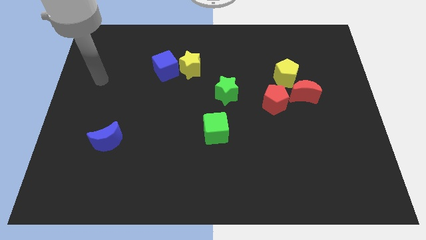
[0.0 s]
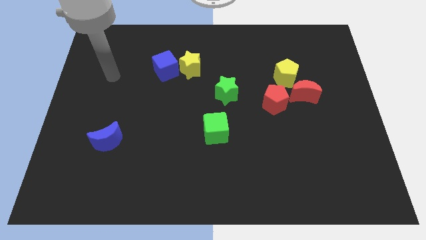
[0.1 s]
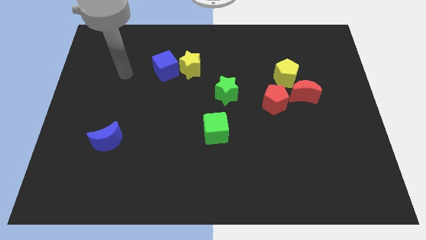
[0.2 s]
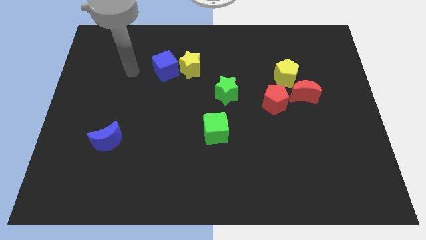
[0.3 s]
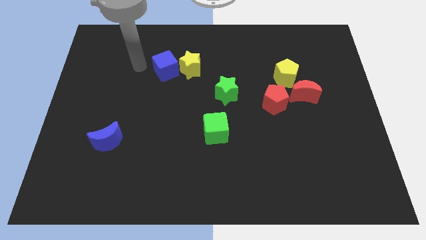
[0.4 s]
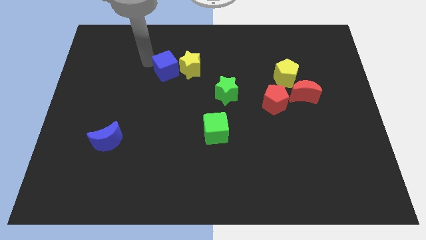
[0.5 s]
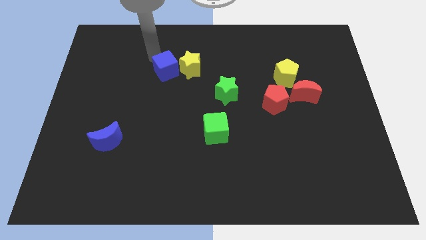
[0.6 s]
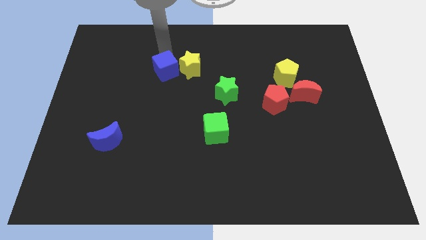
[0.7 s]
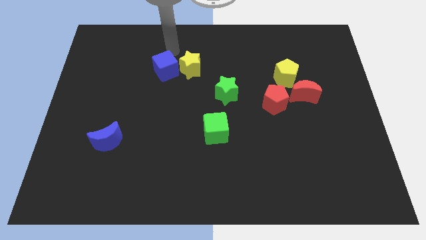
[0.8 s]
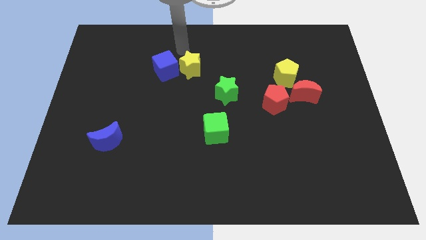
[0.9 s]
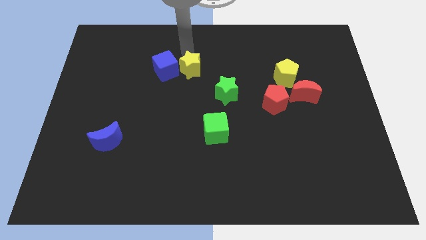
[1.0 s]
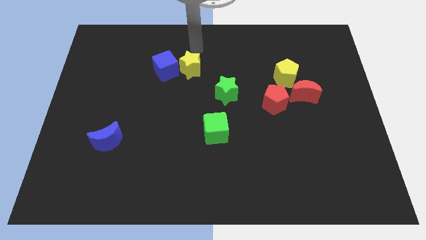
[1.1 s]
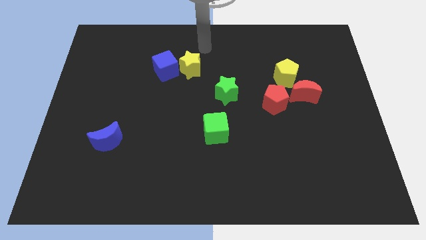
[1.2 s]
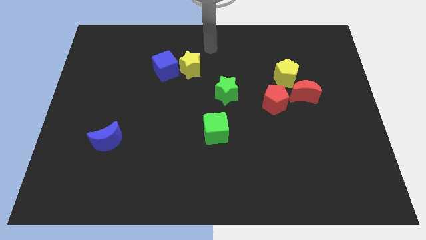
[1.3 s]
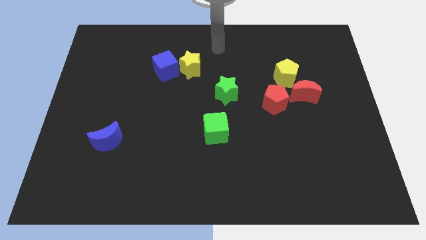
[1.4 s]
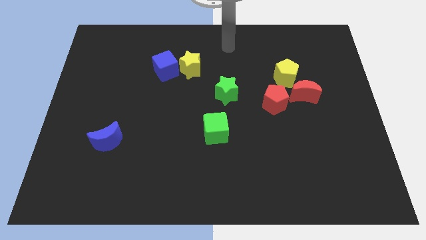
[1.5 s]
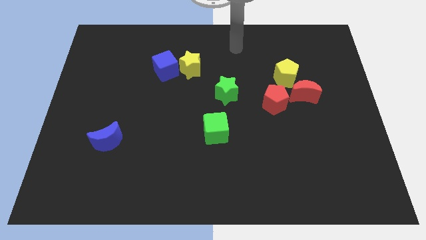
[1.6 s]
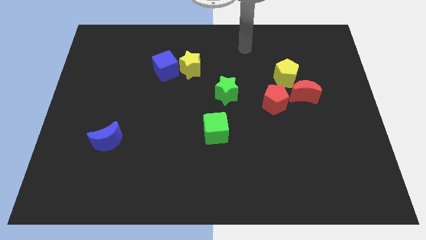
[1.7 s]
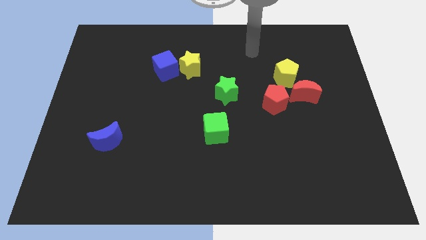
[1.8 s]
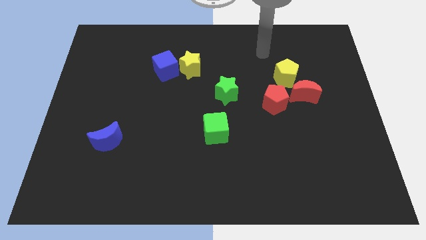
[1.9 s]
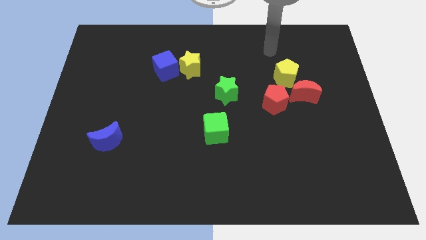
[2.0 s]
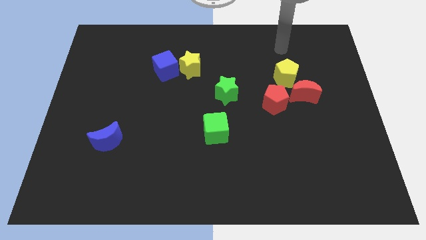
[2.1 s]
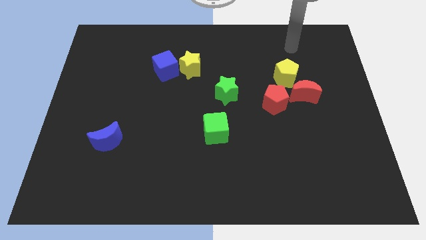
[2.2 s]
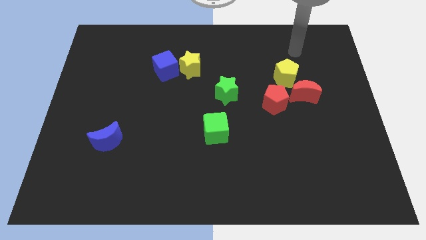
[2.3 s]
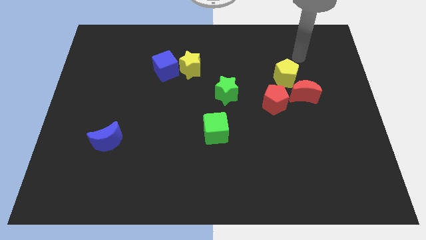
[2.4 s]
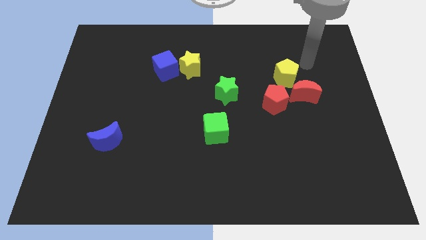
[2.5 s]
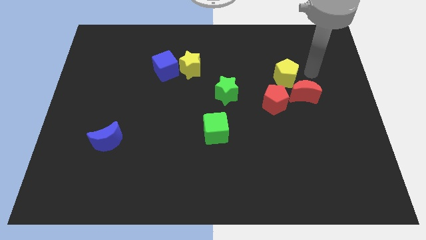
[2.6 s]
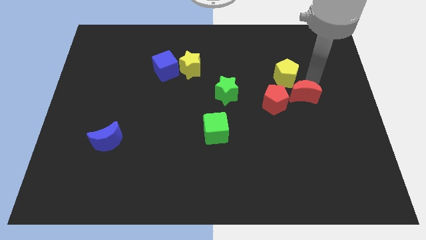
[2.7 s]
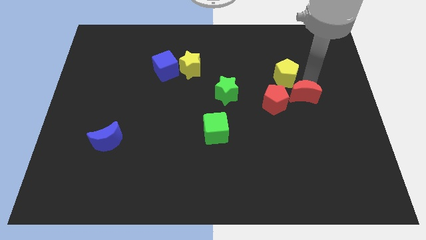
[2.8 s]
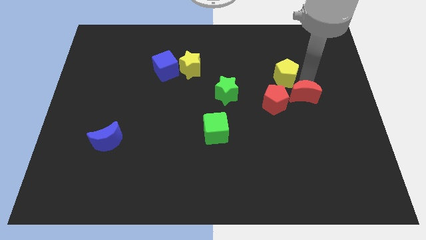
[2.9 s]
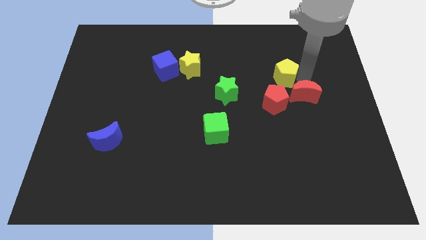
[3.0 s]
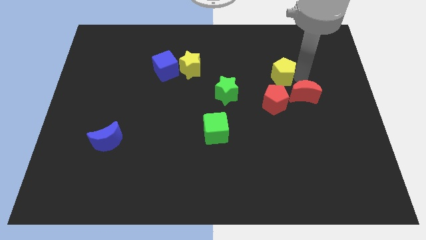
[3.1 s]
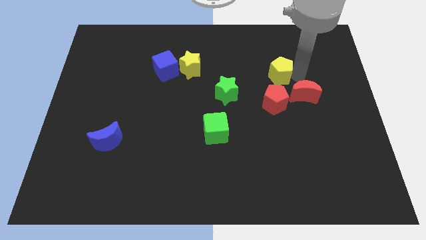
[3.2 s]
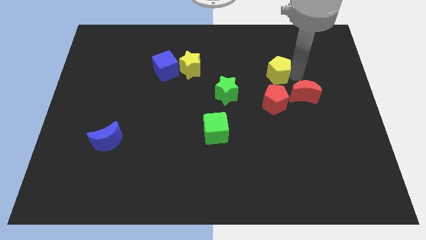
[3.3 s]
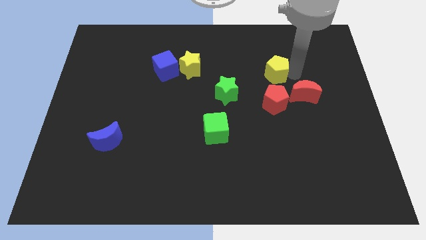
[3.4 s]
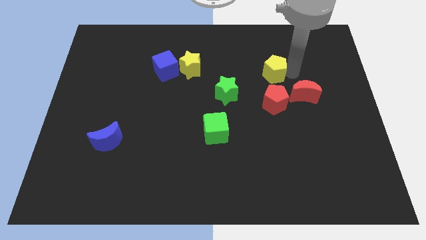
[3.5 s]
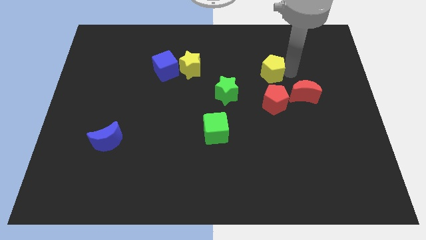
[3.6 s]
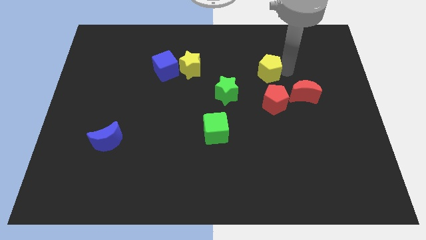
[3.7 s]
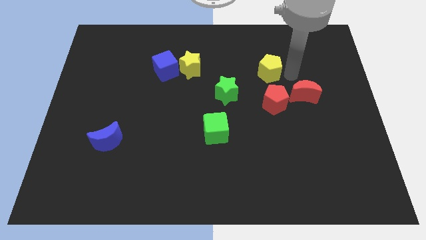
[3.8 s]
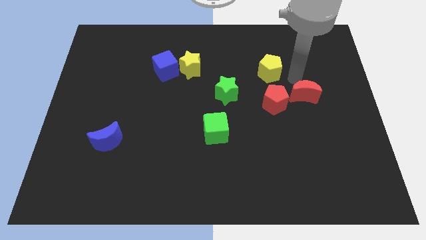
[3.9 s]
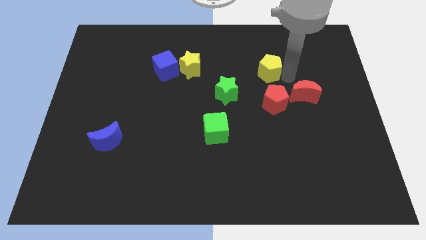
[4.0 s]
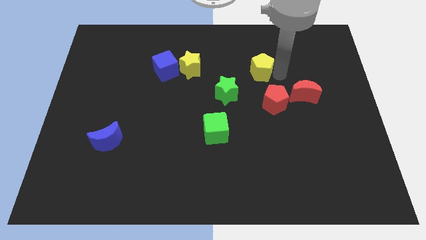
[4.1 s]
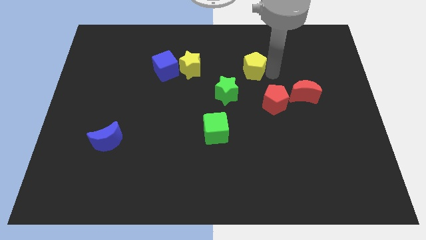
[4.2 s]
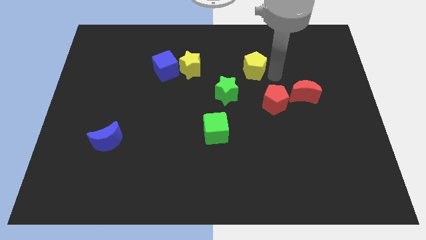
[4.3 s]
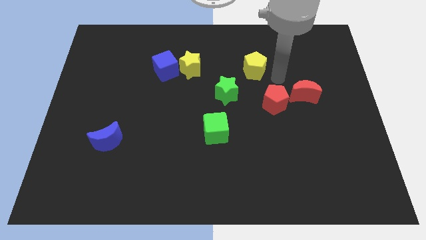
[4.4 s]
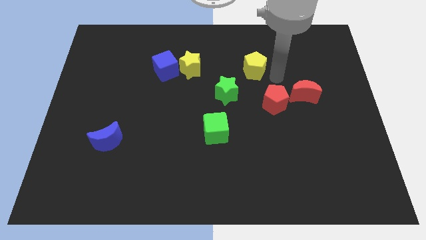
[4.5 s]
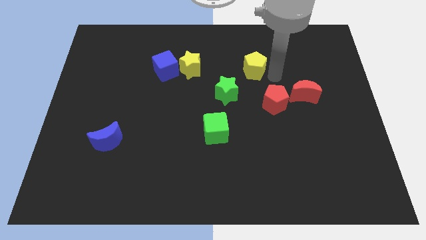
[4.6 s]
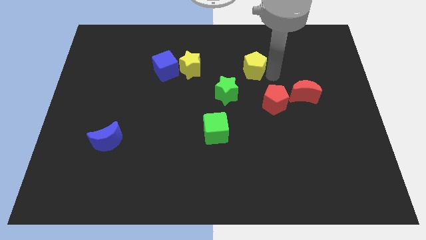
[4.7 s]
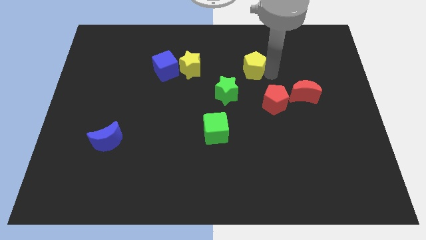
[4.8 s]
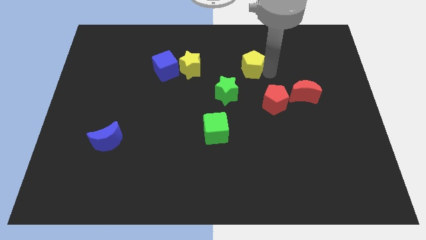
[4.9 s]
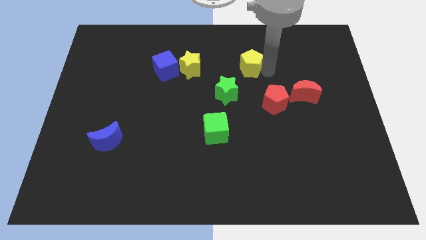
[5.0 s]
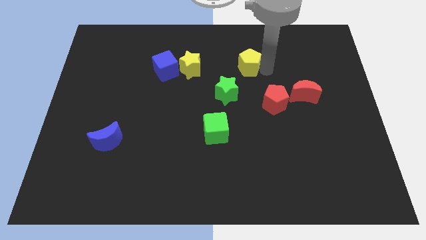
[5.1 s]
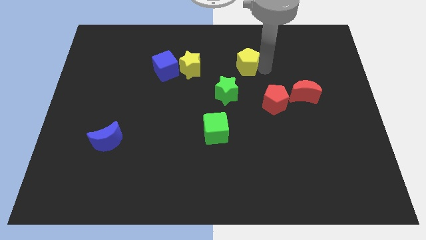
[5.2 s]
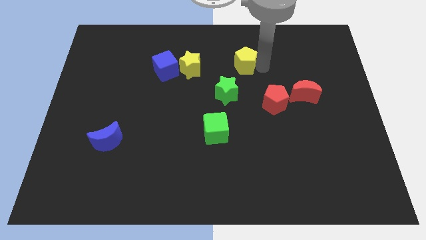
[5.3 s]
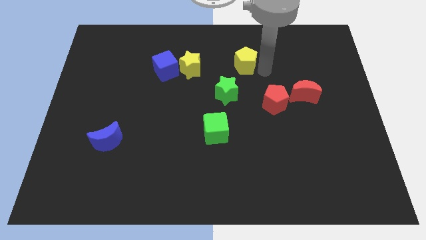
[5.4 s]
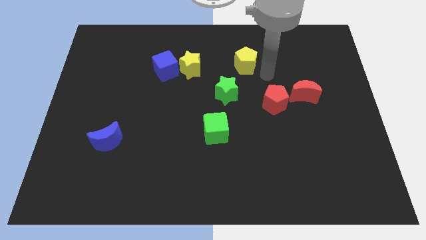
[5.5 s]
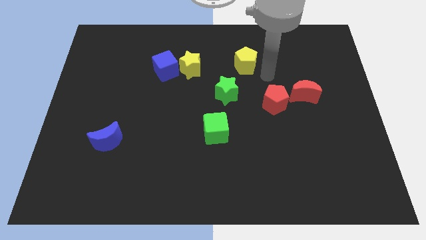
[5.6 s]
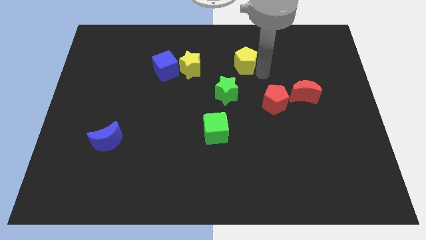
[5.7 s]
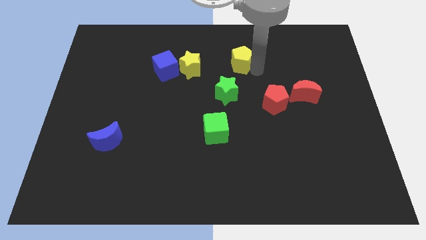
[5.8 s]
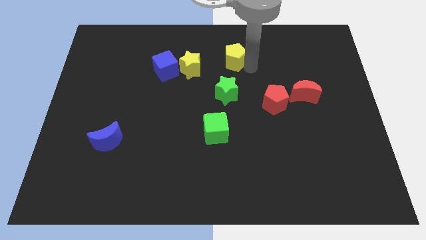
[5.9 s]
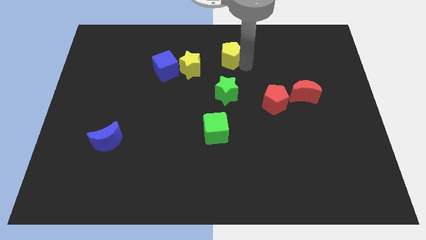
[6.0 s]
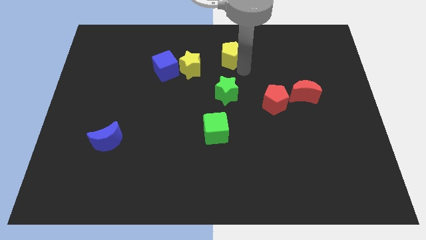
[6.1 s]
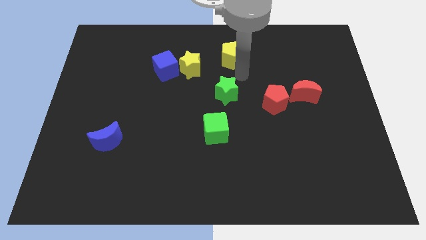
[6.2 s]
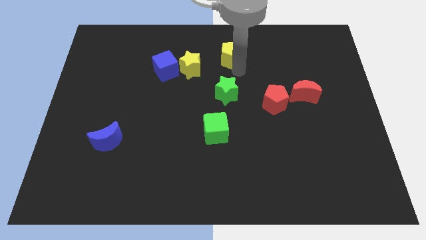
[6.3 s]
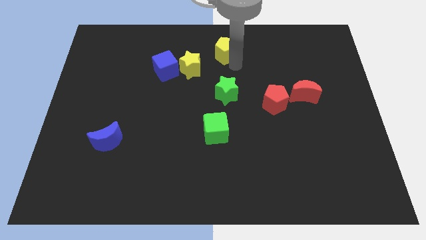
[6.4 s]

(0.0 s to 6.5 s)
move the yellow pentagon to the top

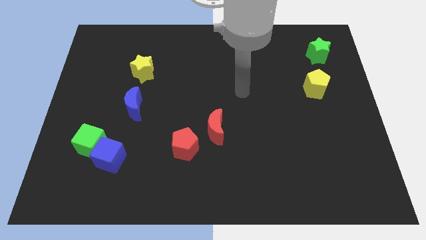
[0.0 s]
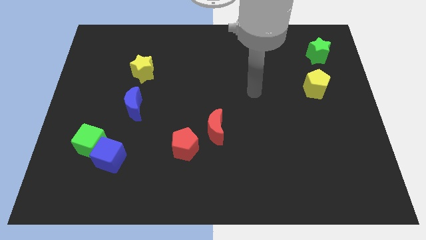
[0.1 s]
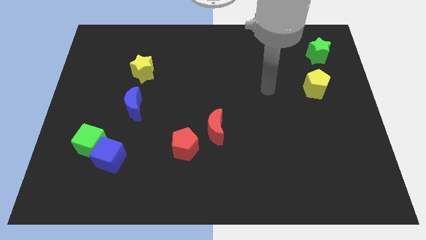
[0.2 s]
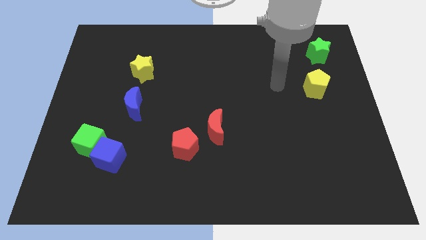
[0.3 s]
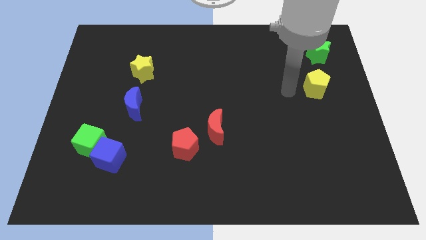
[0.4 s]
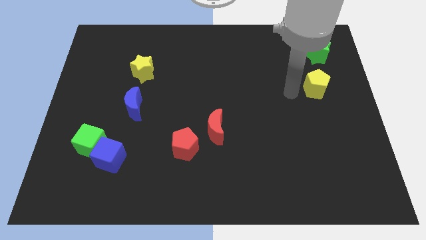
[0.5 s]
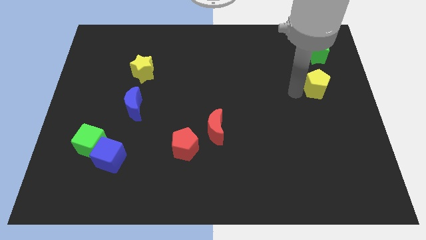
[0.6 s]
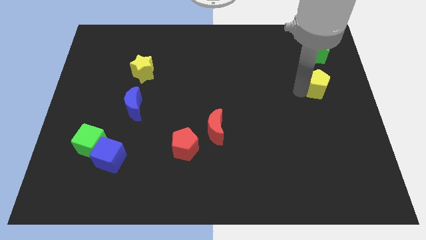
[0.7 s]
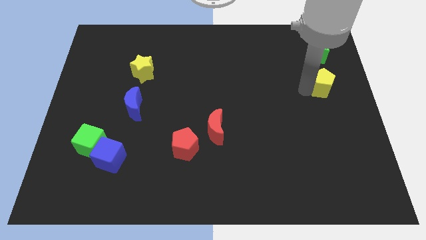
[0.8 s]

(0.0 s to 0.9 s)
slide the yellow pentagon to the center right
